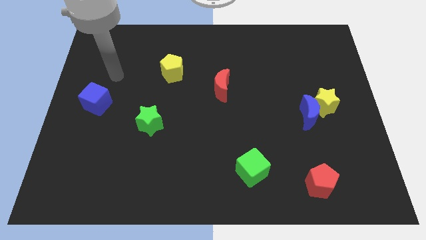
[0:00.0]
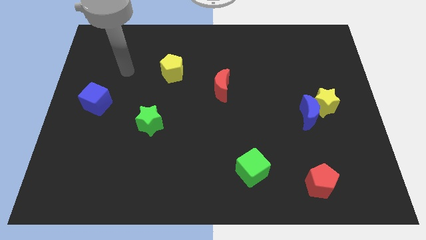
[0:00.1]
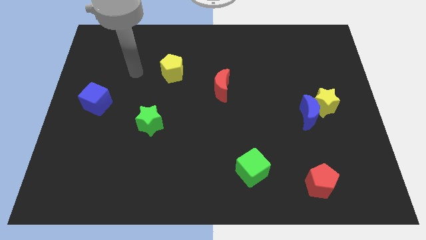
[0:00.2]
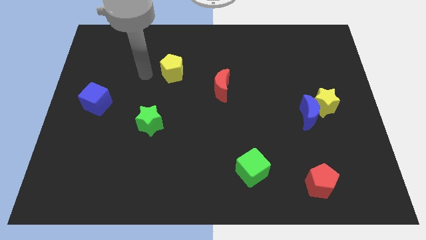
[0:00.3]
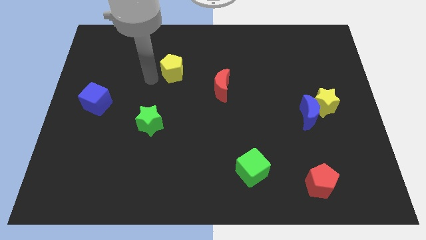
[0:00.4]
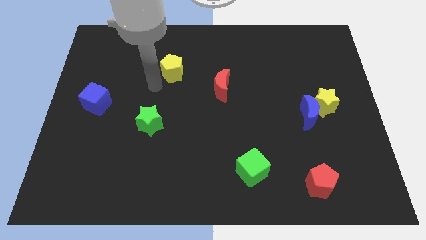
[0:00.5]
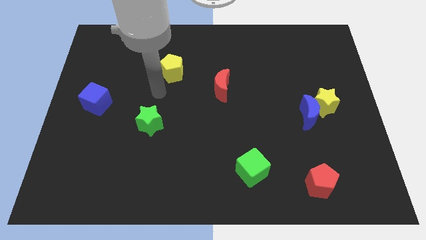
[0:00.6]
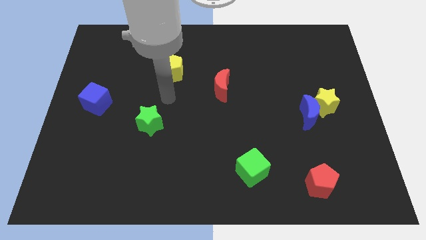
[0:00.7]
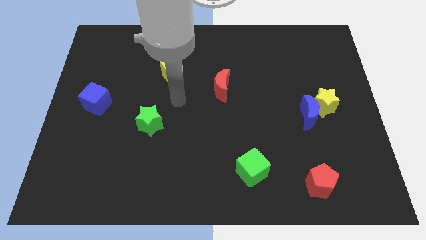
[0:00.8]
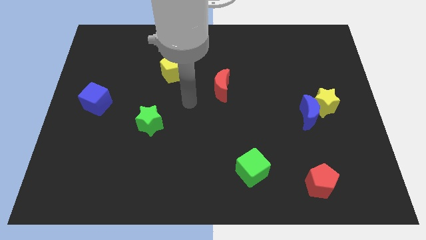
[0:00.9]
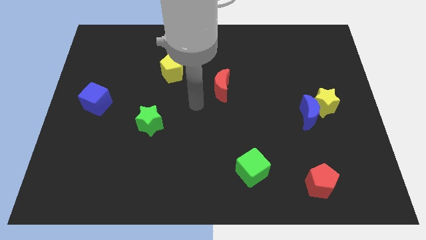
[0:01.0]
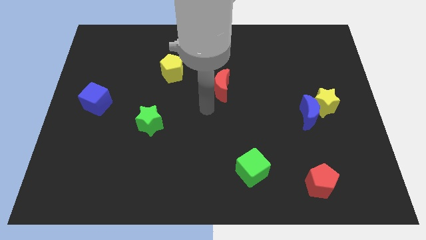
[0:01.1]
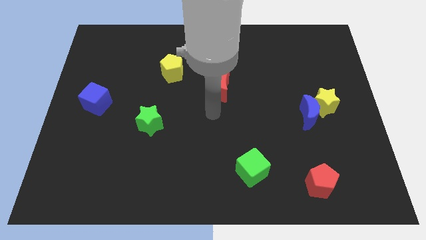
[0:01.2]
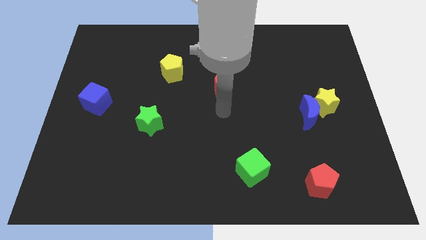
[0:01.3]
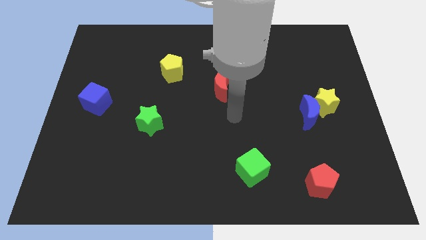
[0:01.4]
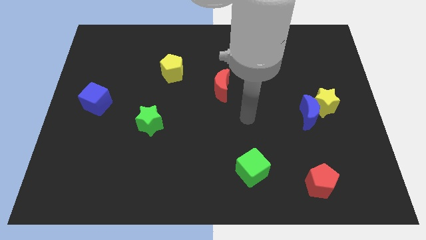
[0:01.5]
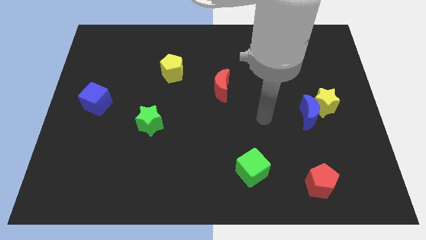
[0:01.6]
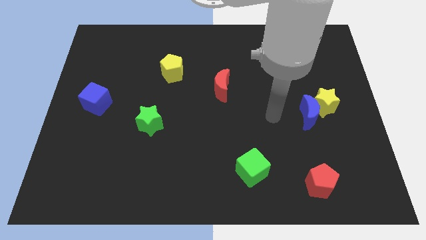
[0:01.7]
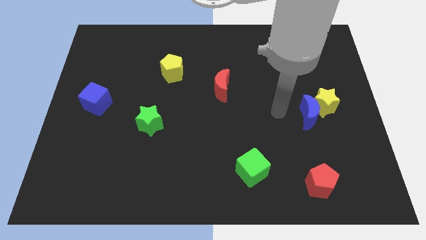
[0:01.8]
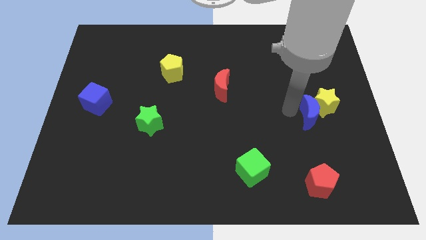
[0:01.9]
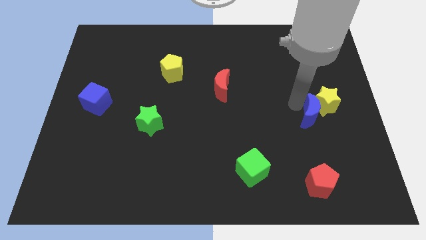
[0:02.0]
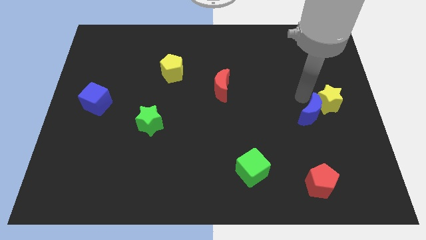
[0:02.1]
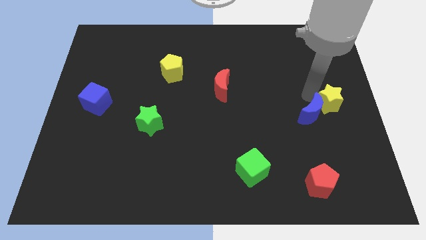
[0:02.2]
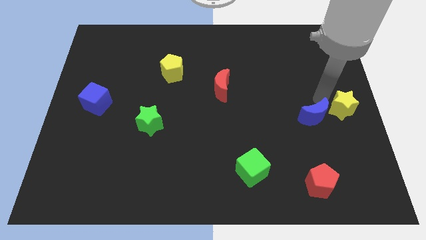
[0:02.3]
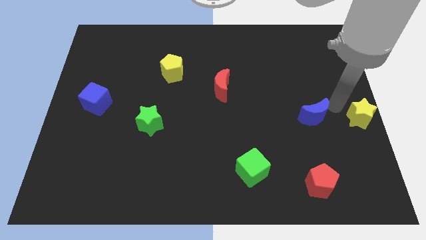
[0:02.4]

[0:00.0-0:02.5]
pull the blue moon apart from the yellow star

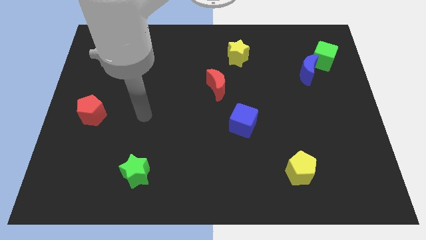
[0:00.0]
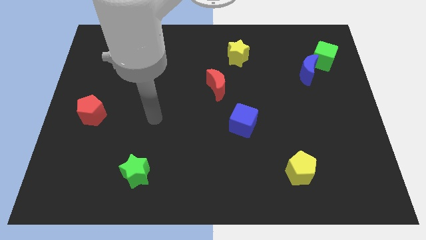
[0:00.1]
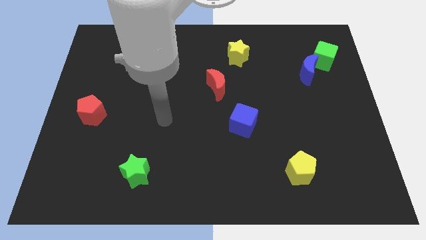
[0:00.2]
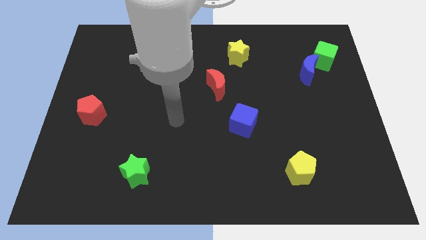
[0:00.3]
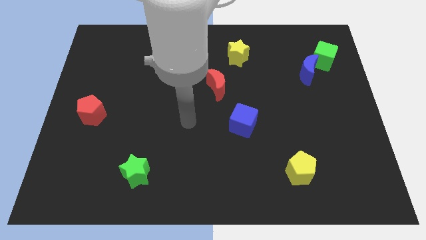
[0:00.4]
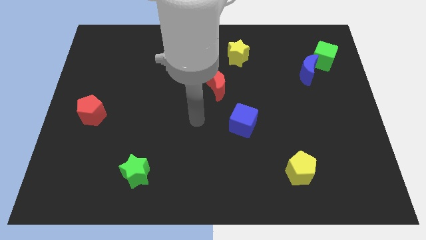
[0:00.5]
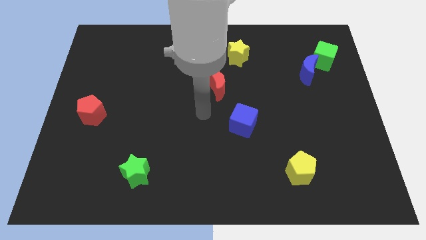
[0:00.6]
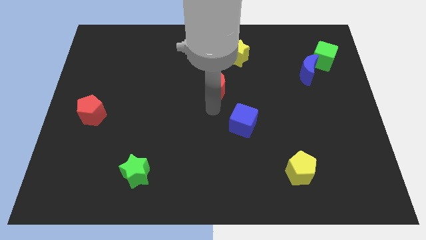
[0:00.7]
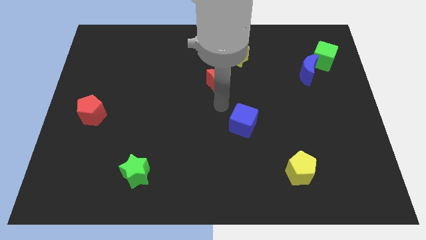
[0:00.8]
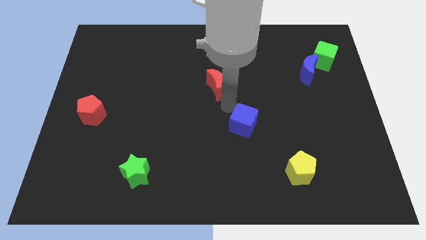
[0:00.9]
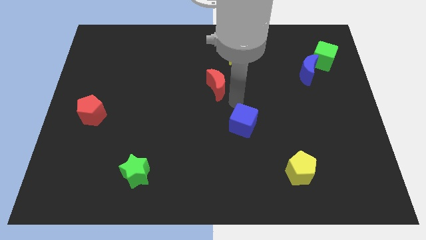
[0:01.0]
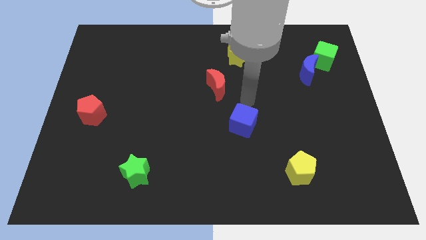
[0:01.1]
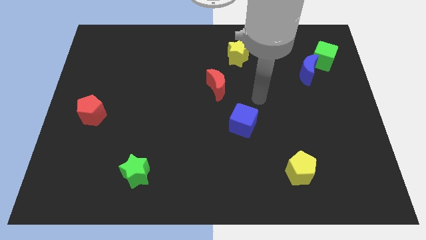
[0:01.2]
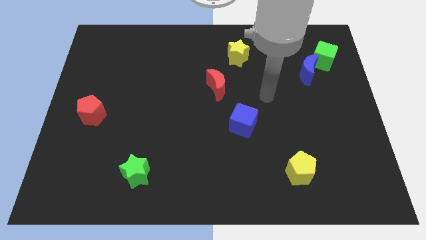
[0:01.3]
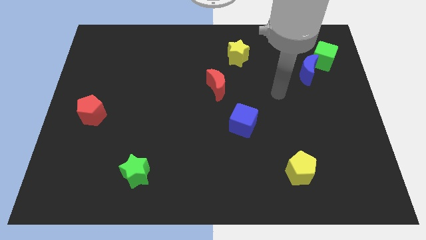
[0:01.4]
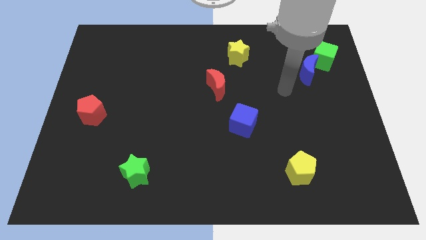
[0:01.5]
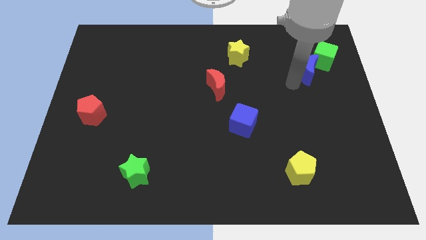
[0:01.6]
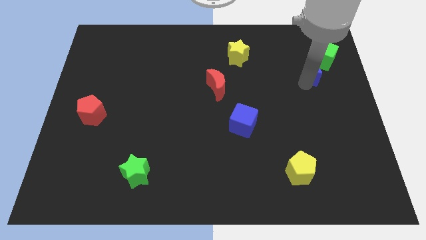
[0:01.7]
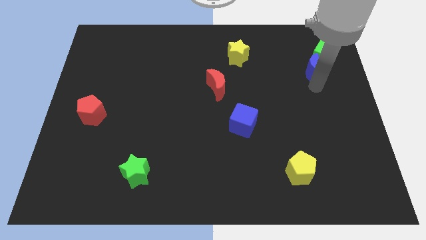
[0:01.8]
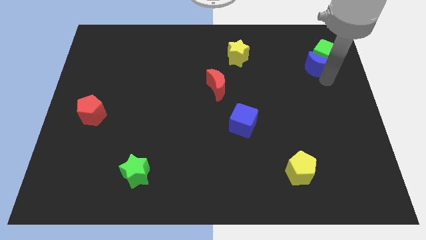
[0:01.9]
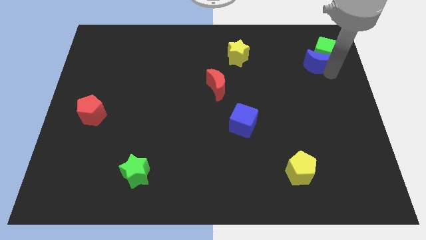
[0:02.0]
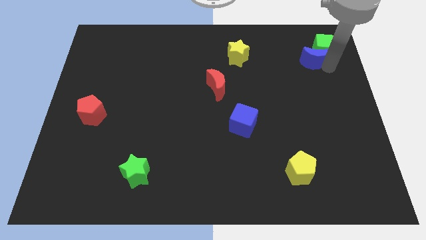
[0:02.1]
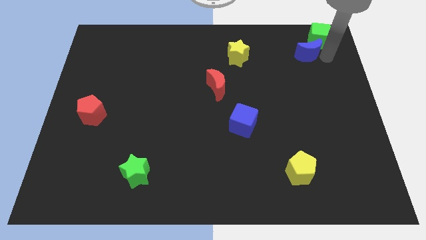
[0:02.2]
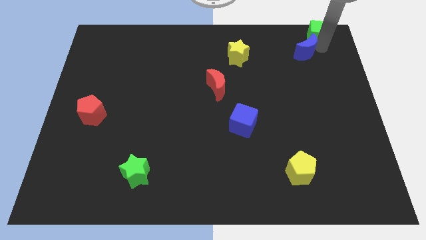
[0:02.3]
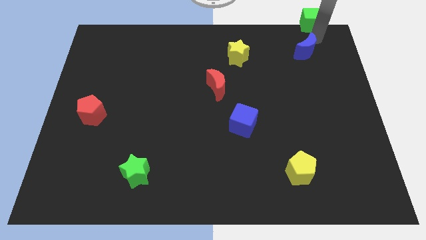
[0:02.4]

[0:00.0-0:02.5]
pull the blue moon apart from the green cube

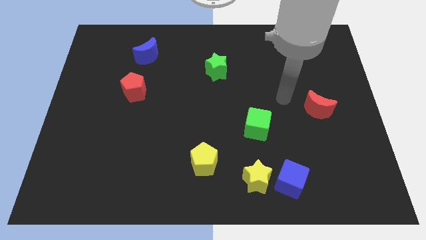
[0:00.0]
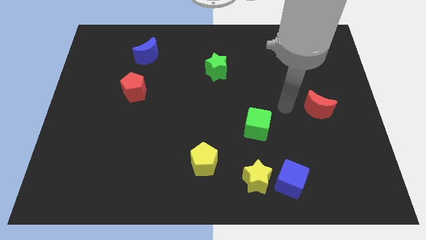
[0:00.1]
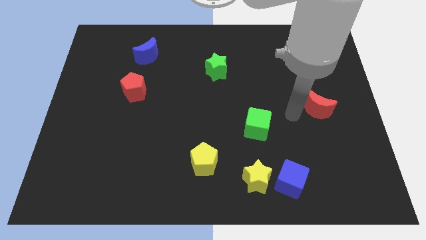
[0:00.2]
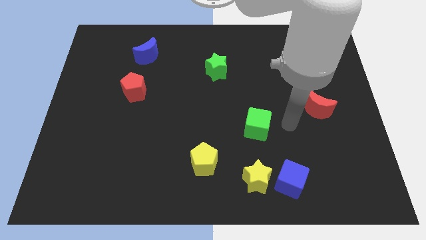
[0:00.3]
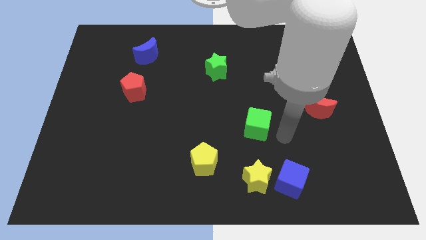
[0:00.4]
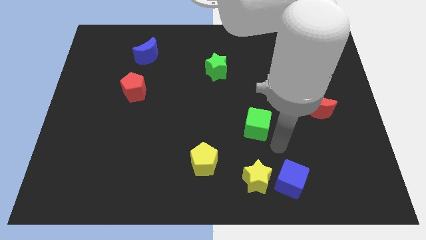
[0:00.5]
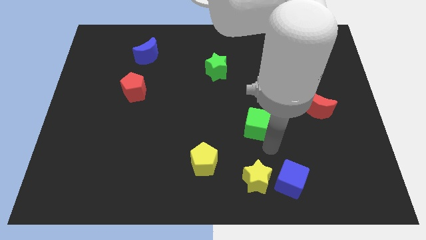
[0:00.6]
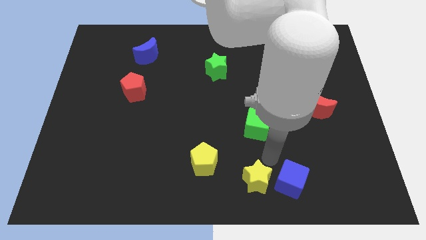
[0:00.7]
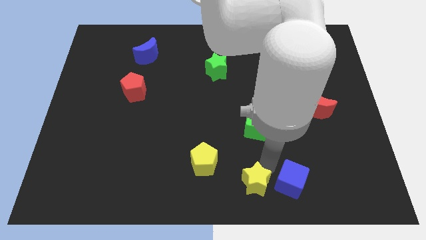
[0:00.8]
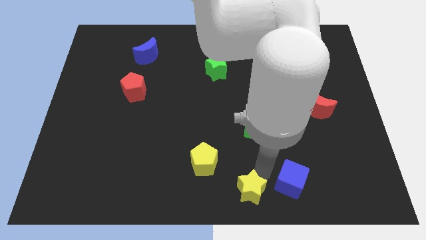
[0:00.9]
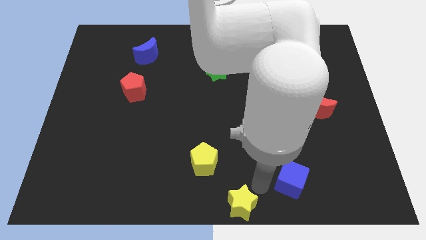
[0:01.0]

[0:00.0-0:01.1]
move the blue cube away from the yellow star

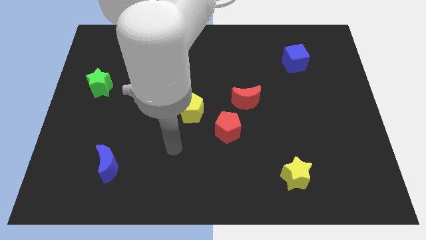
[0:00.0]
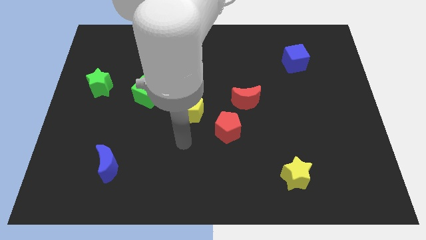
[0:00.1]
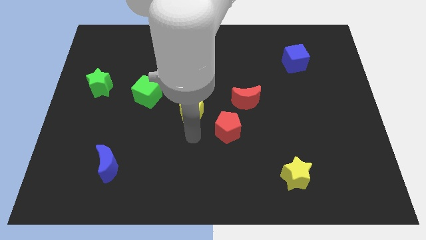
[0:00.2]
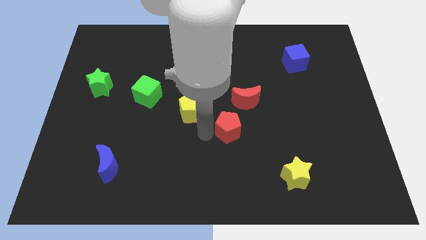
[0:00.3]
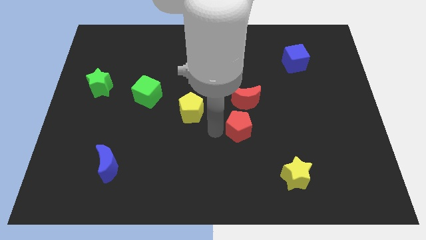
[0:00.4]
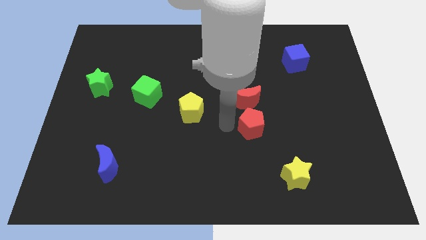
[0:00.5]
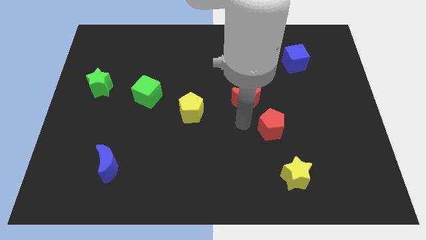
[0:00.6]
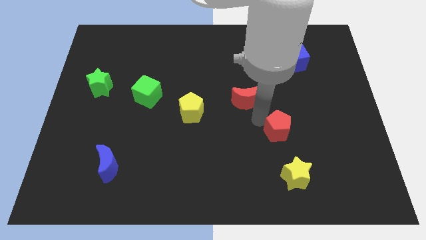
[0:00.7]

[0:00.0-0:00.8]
separate the red moon from the red pentagon

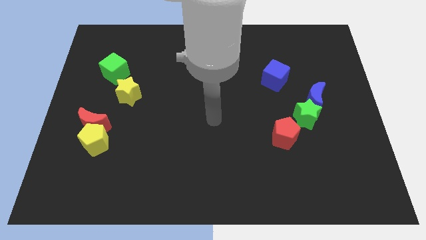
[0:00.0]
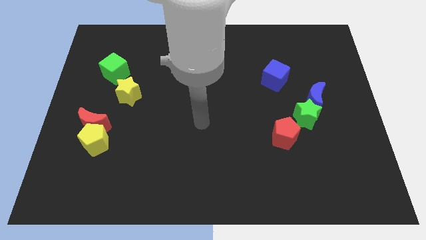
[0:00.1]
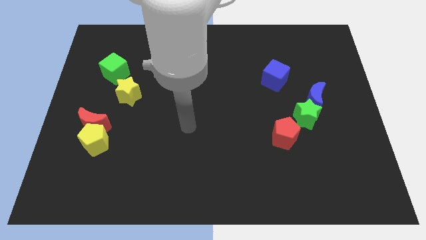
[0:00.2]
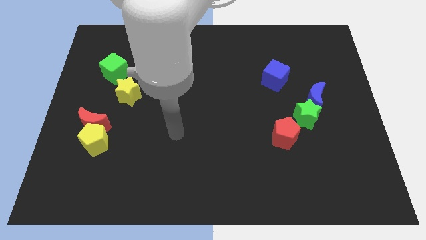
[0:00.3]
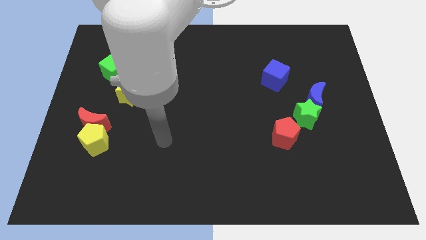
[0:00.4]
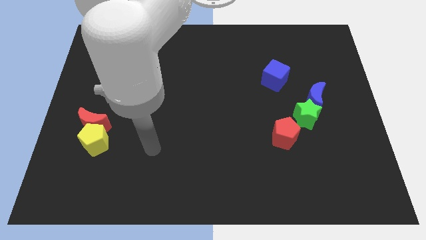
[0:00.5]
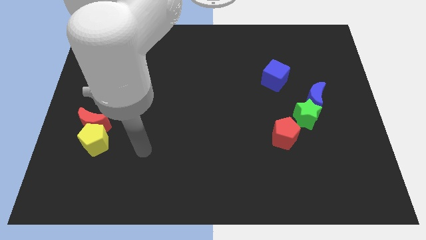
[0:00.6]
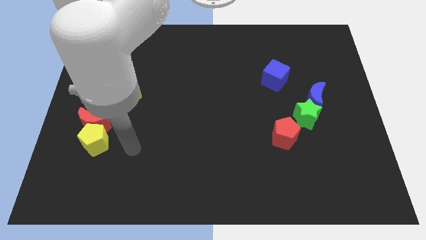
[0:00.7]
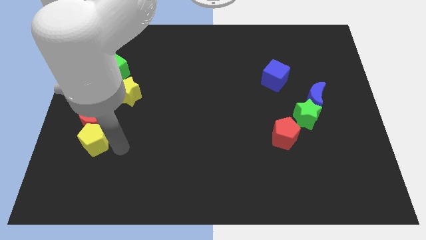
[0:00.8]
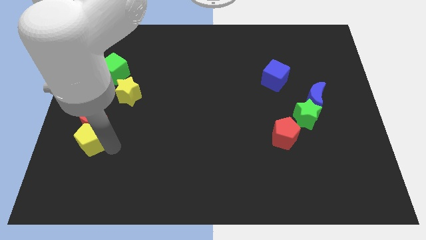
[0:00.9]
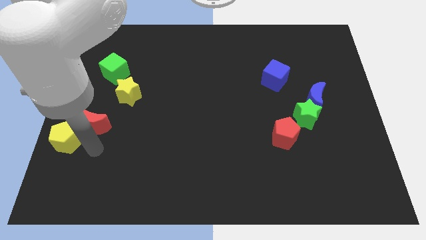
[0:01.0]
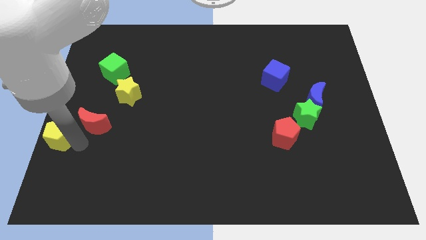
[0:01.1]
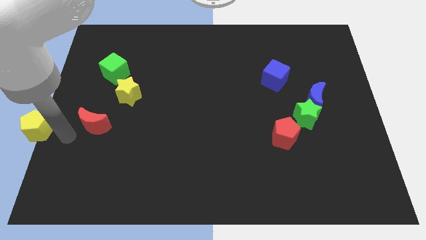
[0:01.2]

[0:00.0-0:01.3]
move the red moon away from the yellow pentagon

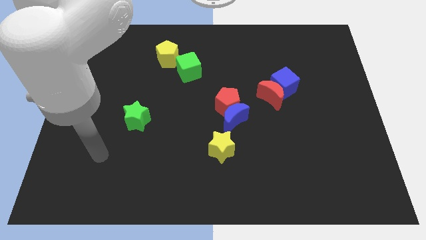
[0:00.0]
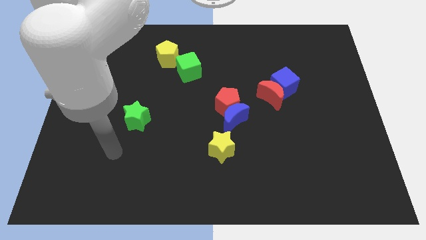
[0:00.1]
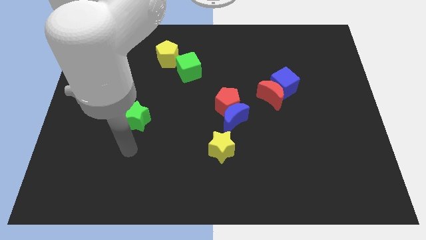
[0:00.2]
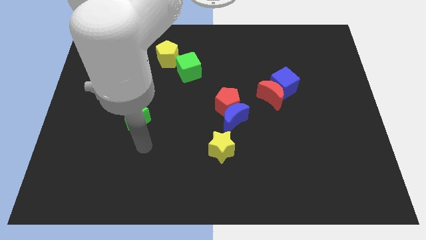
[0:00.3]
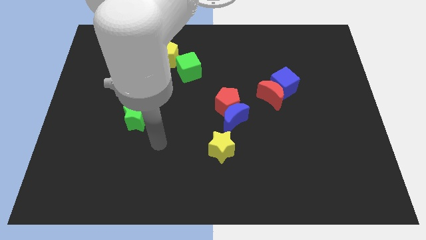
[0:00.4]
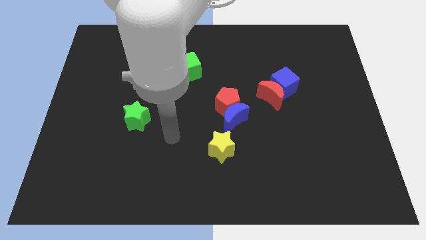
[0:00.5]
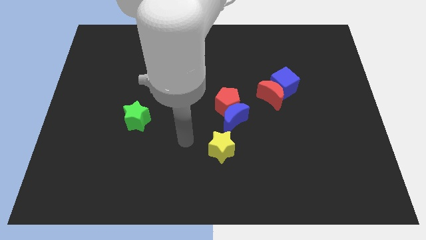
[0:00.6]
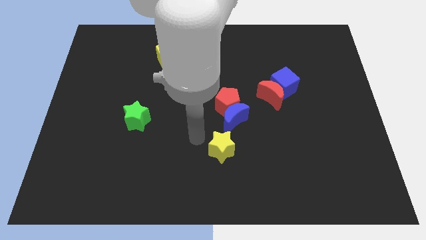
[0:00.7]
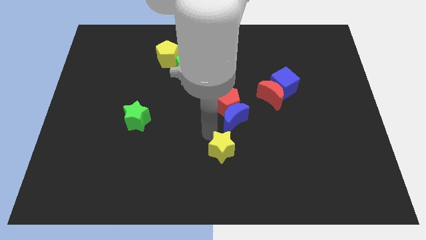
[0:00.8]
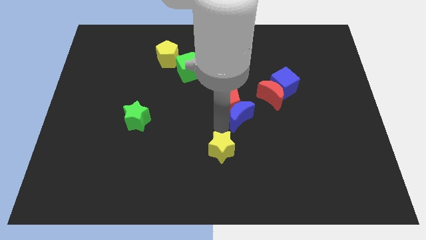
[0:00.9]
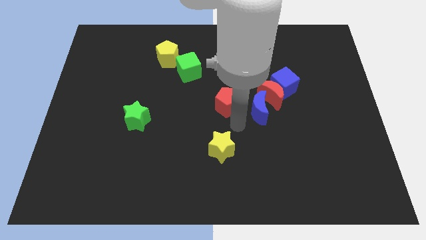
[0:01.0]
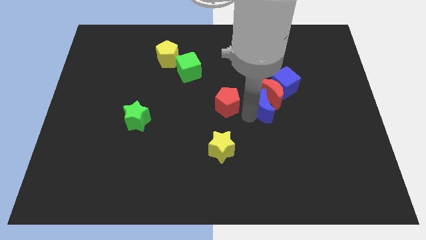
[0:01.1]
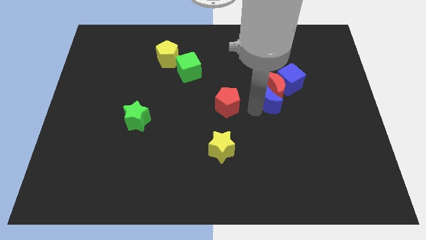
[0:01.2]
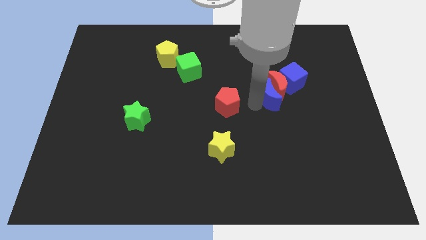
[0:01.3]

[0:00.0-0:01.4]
separate the red pentagon from the blue moon
